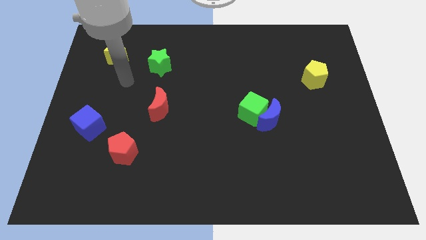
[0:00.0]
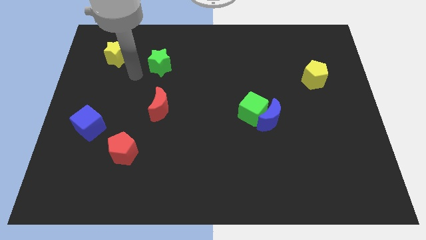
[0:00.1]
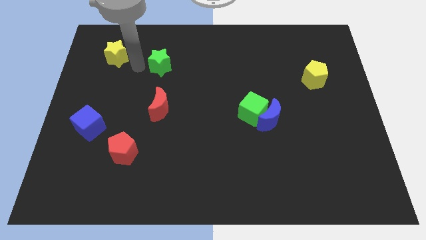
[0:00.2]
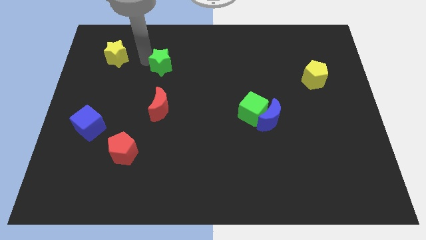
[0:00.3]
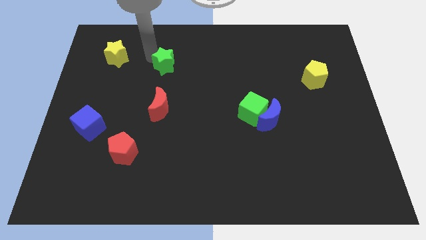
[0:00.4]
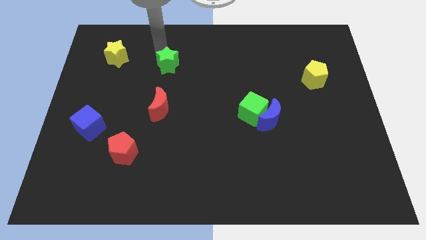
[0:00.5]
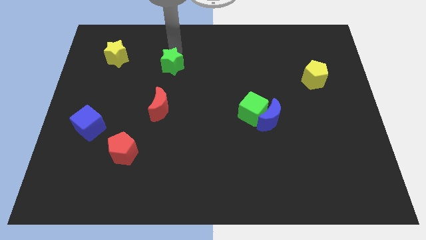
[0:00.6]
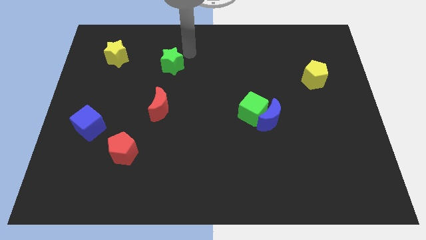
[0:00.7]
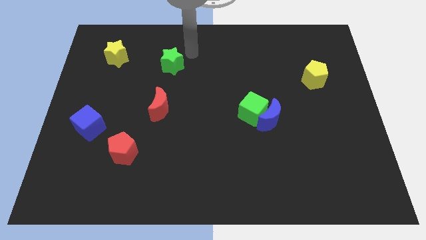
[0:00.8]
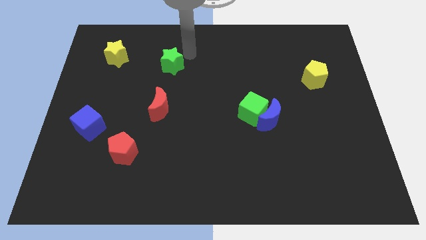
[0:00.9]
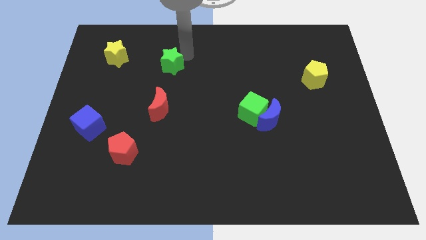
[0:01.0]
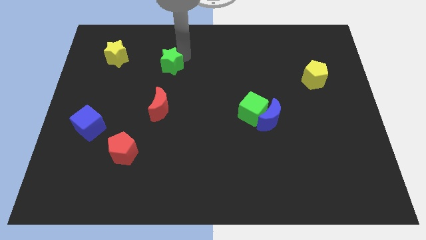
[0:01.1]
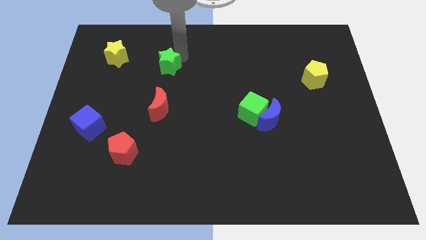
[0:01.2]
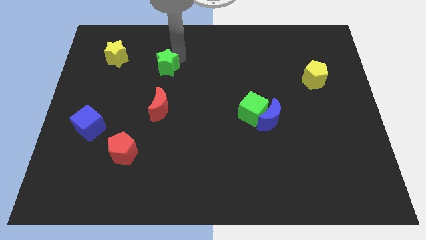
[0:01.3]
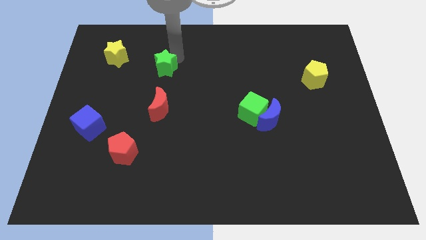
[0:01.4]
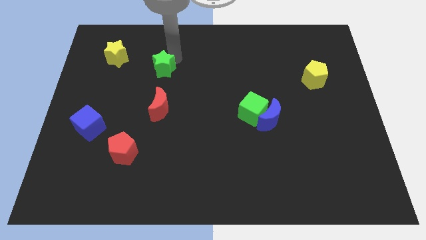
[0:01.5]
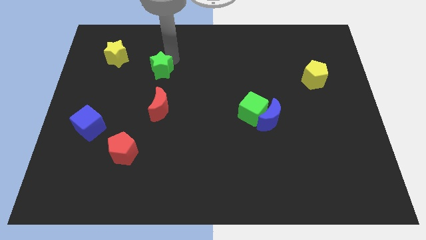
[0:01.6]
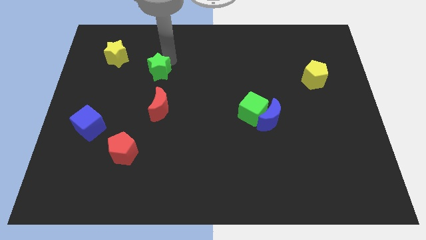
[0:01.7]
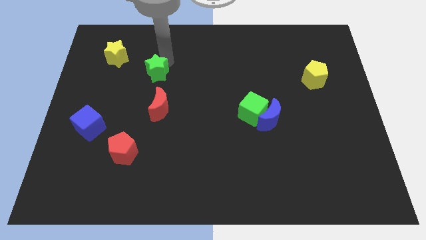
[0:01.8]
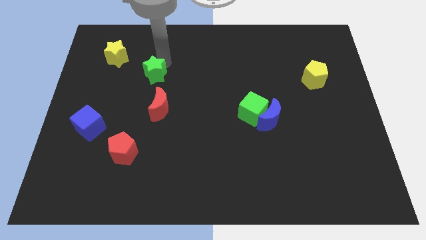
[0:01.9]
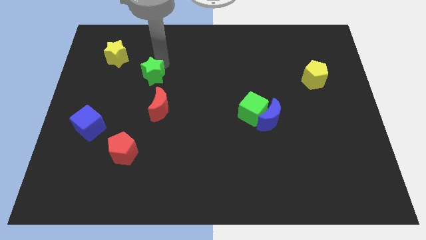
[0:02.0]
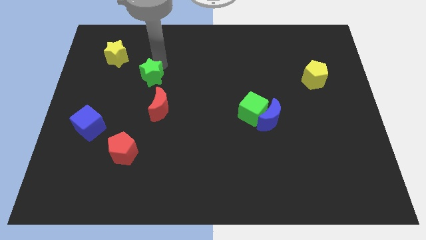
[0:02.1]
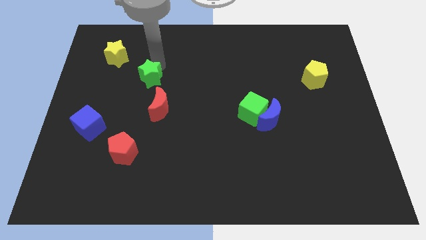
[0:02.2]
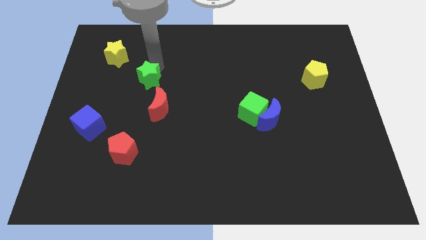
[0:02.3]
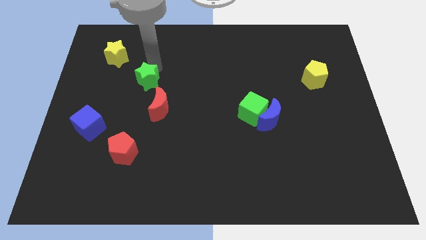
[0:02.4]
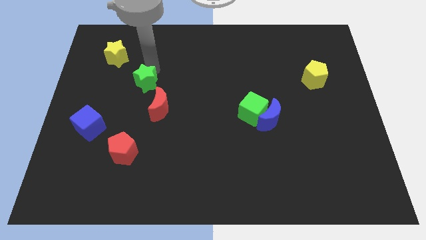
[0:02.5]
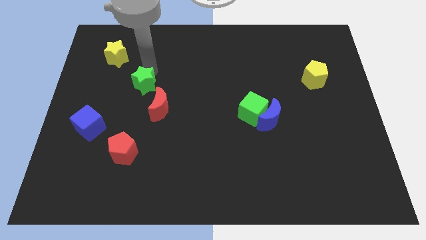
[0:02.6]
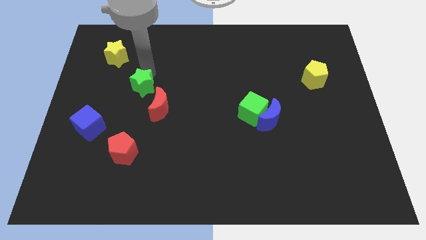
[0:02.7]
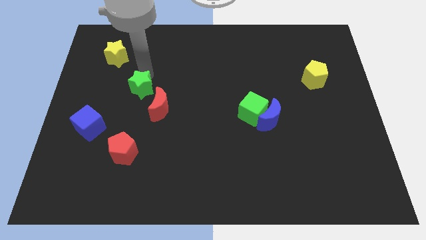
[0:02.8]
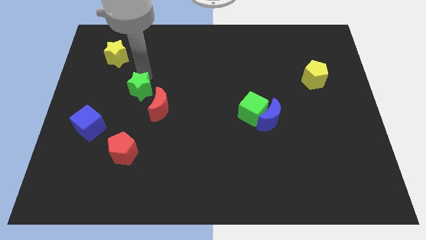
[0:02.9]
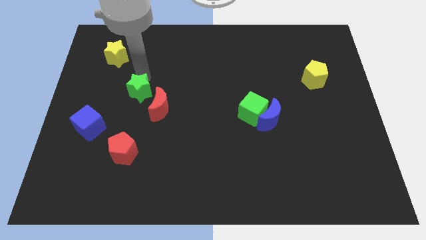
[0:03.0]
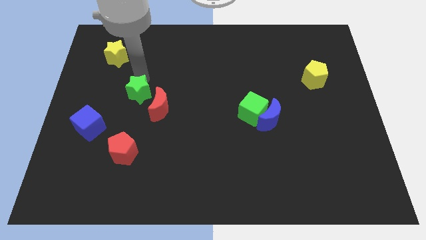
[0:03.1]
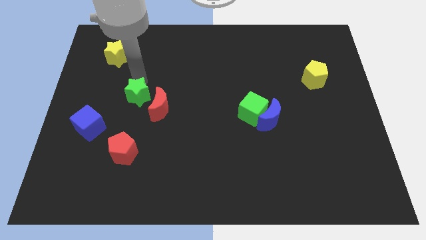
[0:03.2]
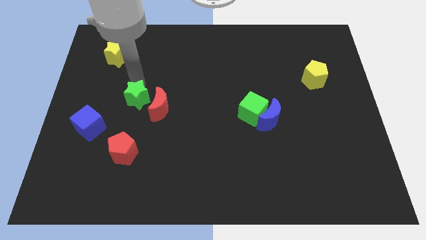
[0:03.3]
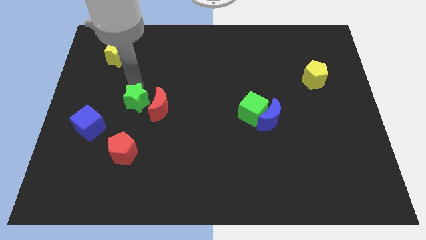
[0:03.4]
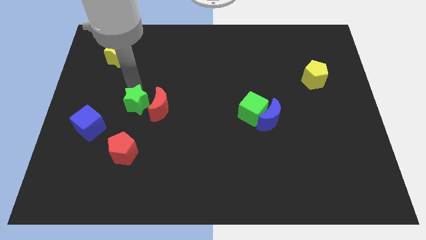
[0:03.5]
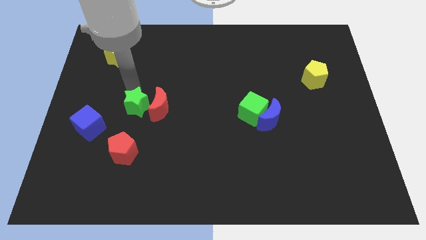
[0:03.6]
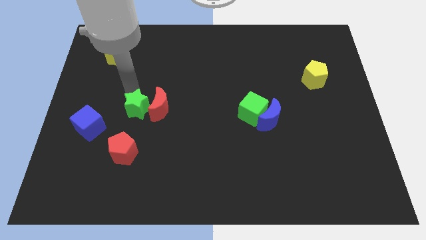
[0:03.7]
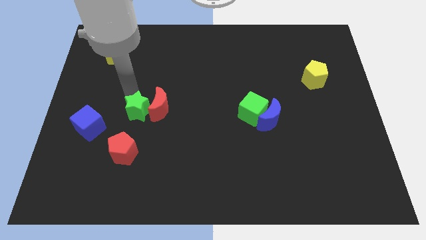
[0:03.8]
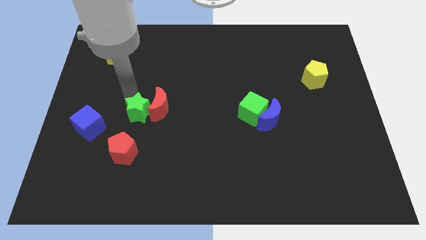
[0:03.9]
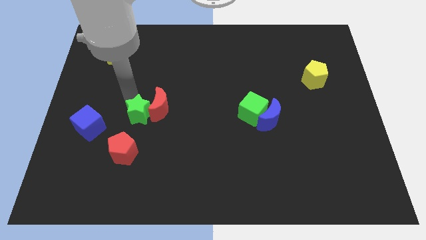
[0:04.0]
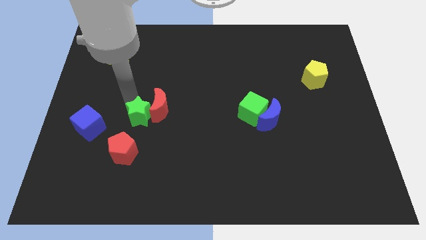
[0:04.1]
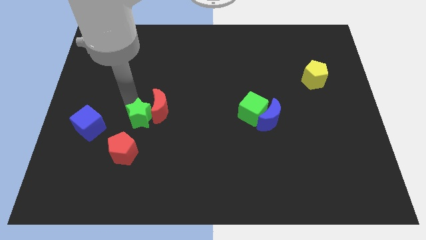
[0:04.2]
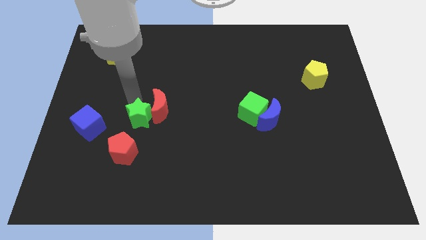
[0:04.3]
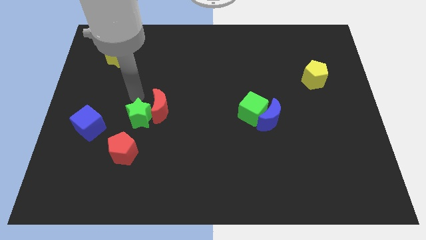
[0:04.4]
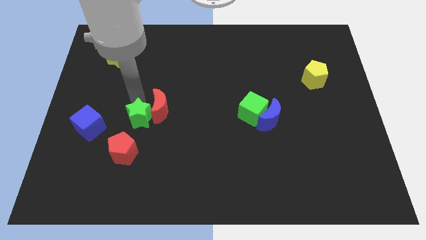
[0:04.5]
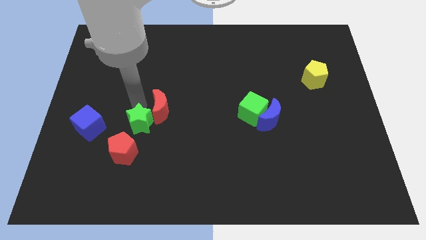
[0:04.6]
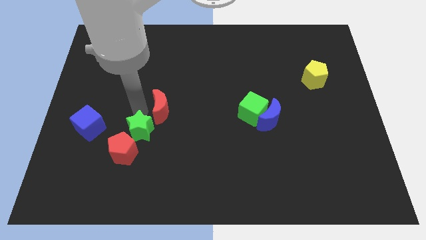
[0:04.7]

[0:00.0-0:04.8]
slide the green star downwards

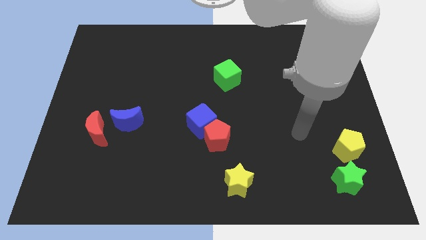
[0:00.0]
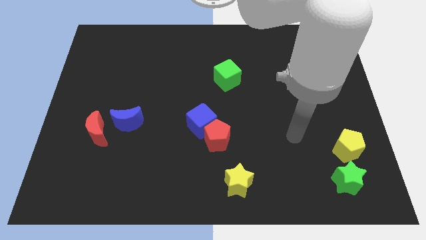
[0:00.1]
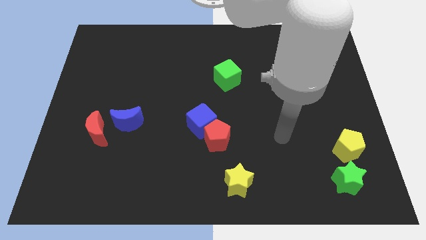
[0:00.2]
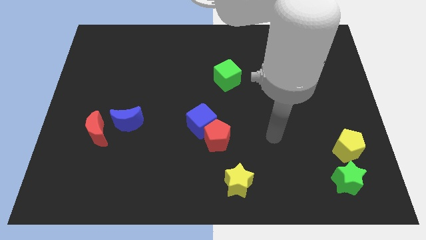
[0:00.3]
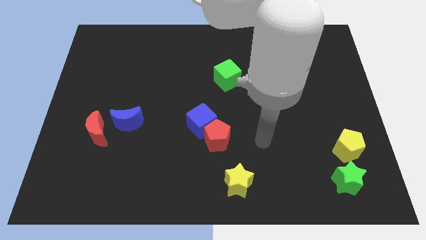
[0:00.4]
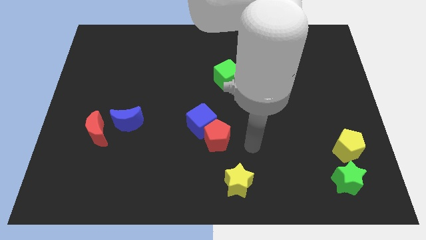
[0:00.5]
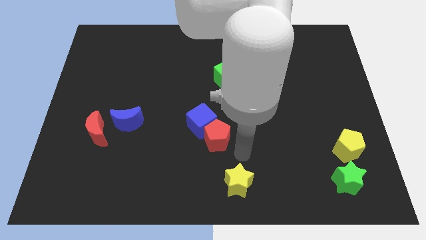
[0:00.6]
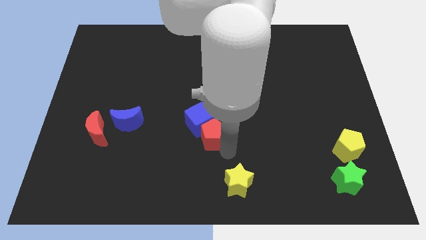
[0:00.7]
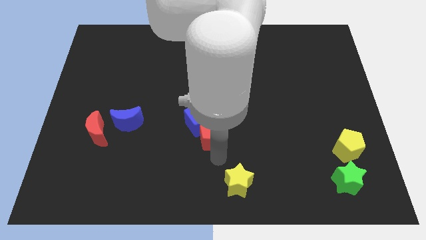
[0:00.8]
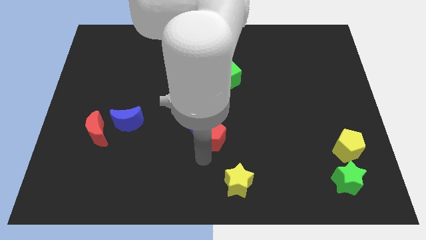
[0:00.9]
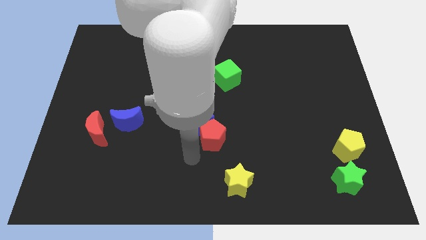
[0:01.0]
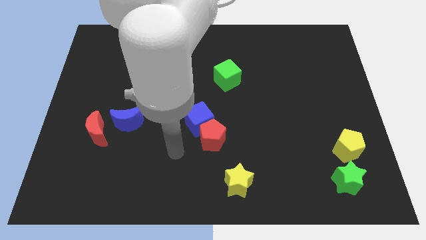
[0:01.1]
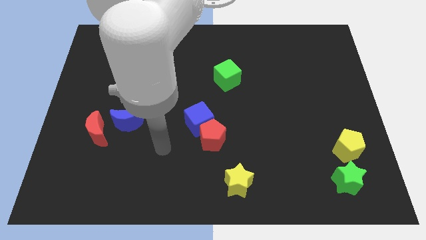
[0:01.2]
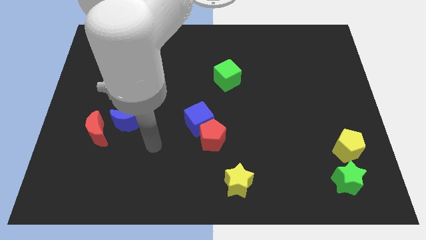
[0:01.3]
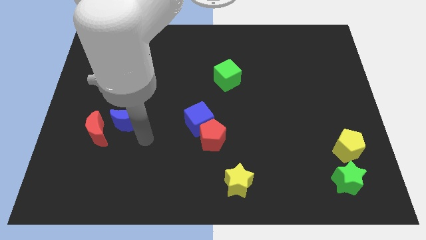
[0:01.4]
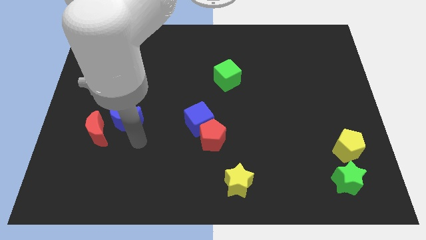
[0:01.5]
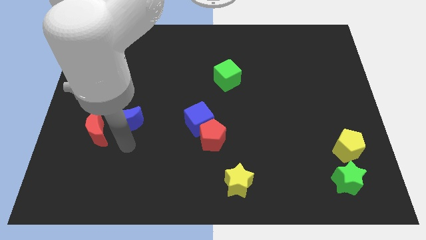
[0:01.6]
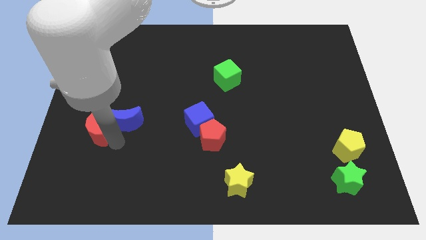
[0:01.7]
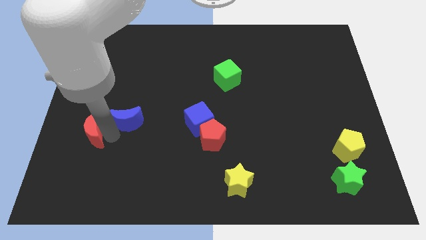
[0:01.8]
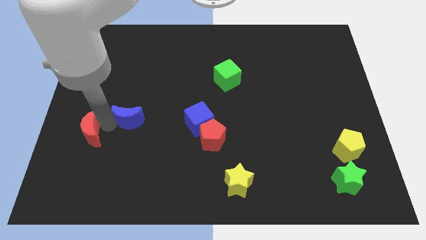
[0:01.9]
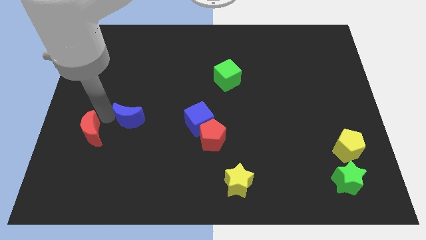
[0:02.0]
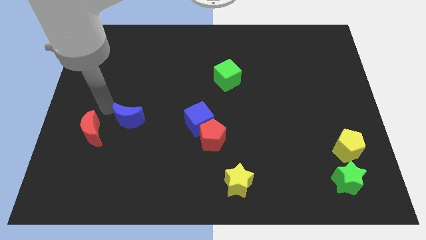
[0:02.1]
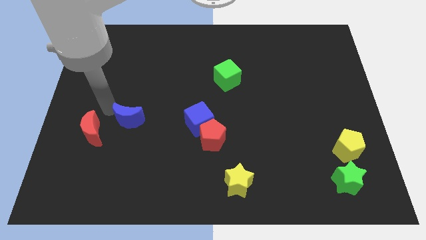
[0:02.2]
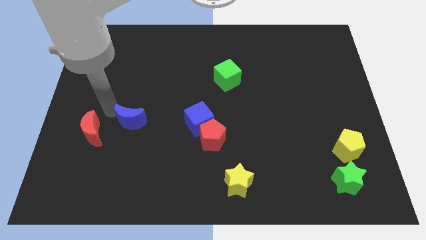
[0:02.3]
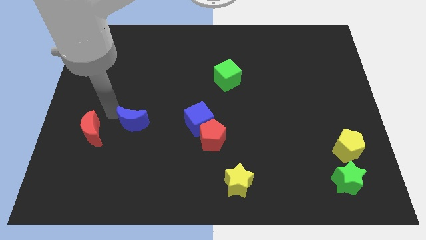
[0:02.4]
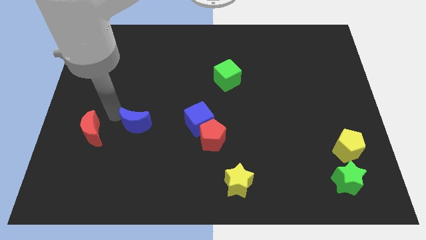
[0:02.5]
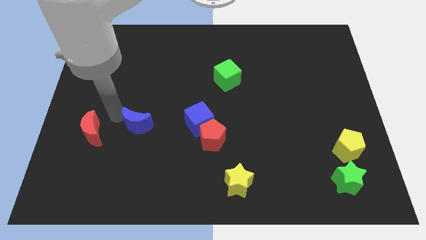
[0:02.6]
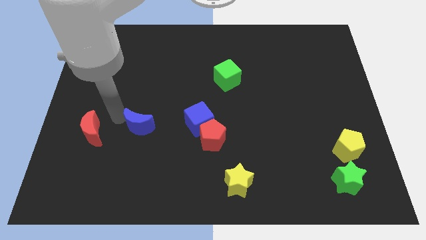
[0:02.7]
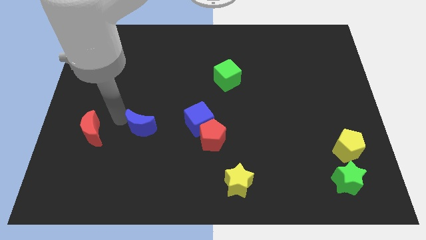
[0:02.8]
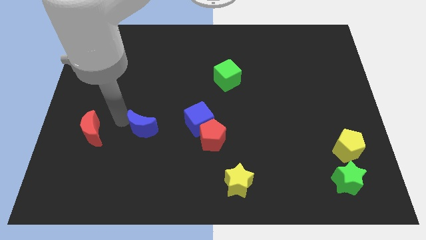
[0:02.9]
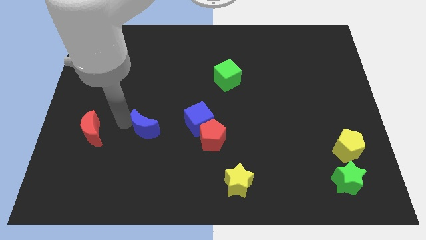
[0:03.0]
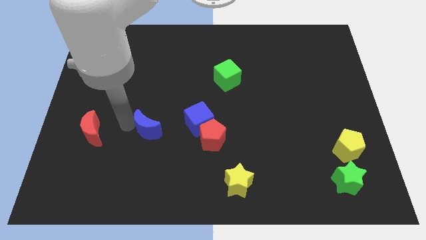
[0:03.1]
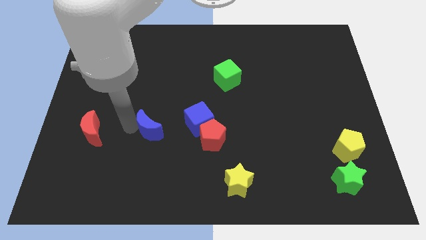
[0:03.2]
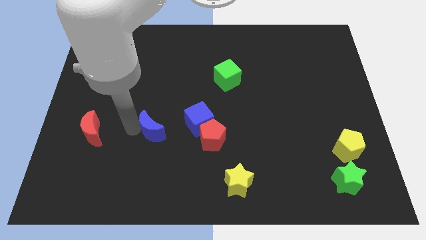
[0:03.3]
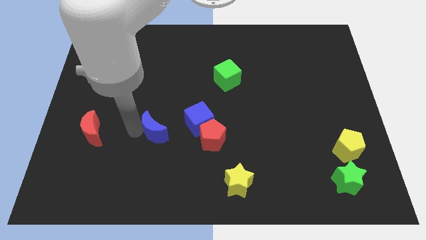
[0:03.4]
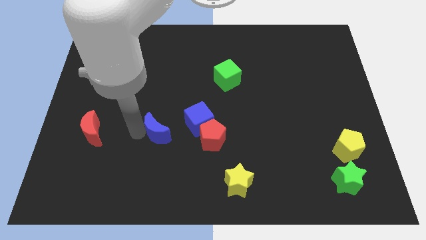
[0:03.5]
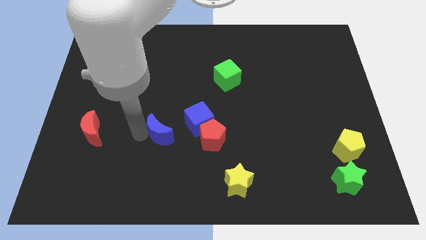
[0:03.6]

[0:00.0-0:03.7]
push the blue moon a little bit downwards and then to the right
